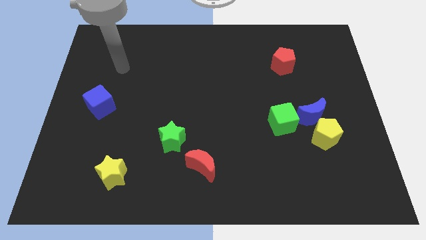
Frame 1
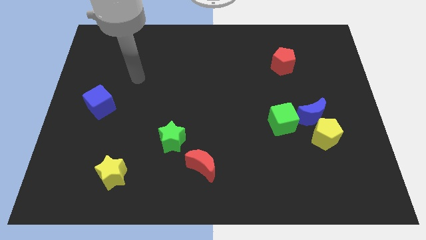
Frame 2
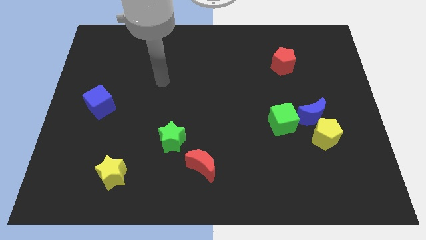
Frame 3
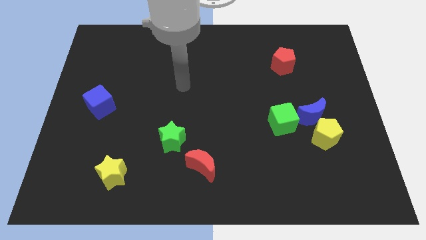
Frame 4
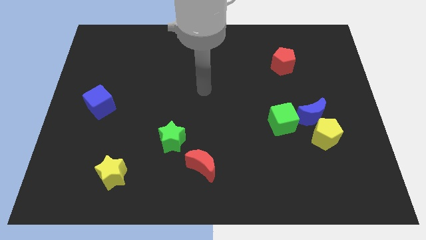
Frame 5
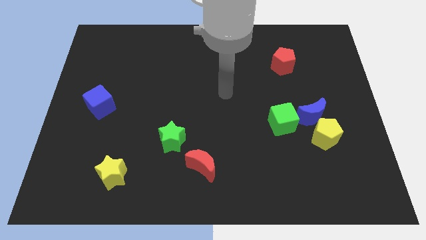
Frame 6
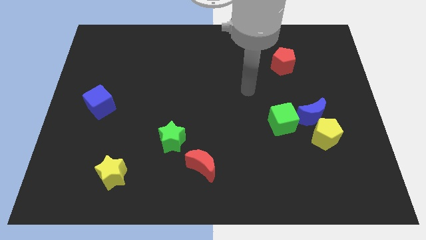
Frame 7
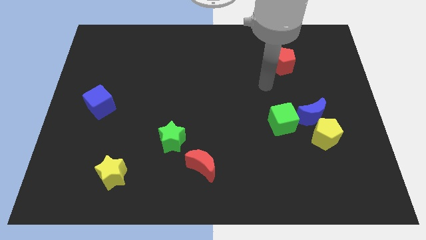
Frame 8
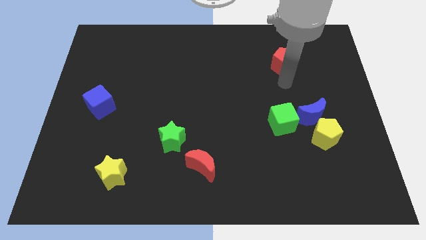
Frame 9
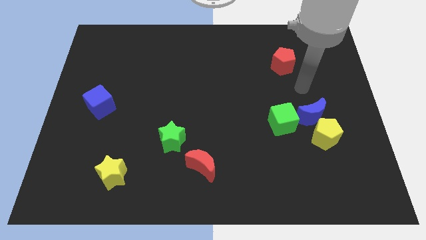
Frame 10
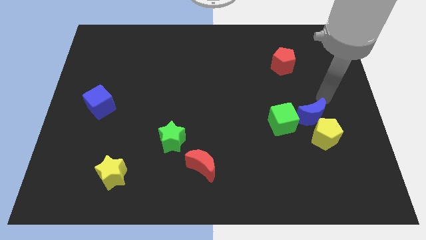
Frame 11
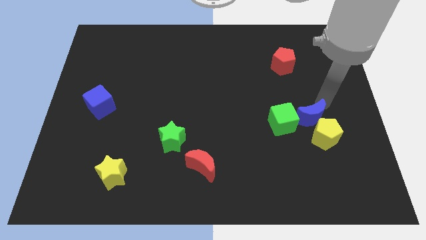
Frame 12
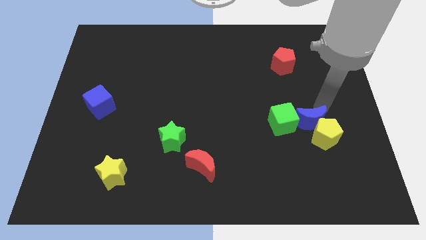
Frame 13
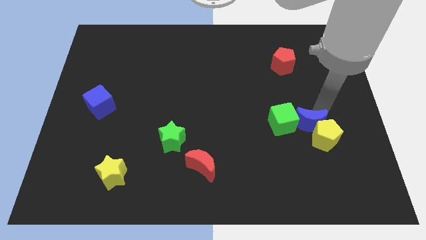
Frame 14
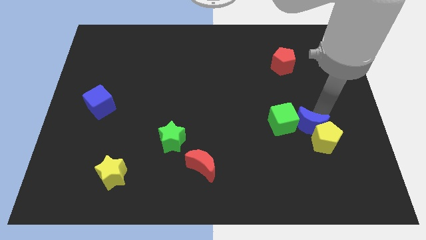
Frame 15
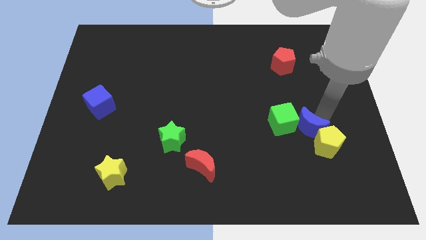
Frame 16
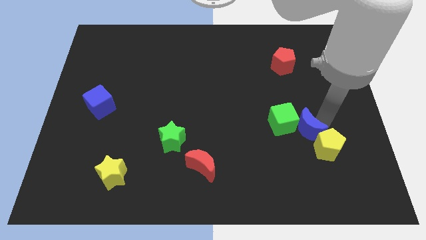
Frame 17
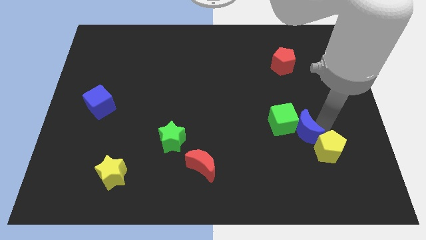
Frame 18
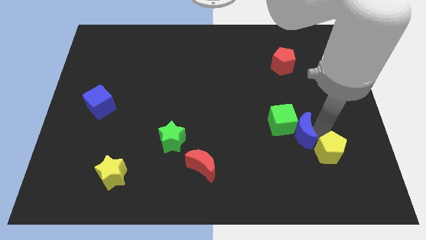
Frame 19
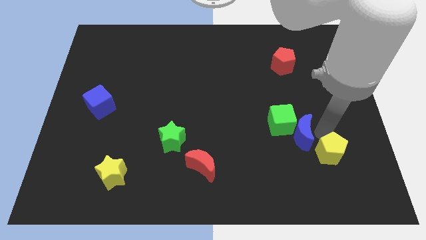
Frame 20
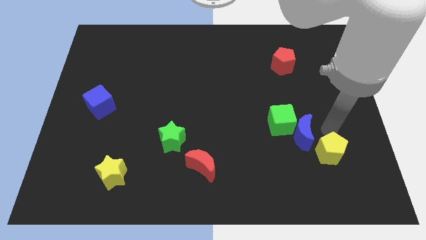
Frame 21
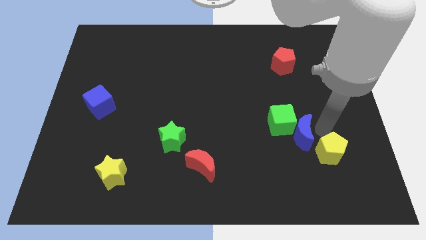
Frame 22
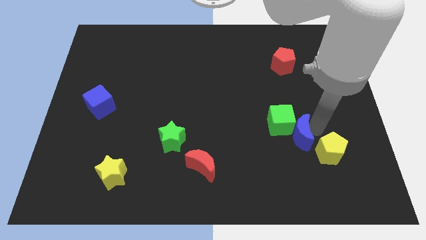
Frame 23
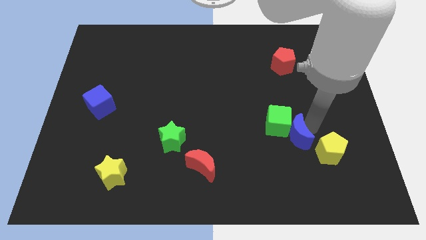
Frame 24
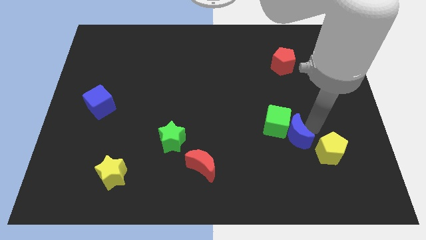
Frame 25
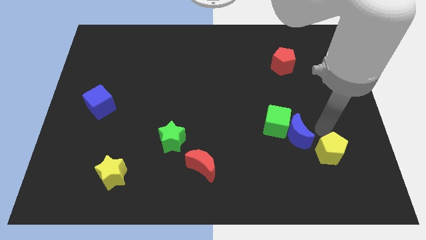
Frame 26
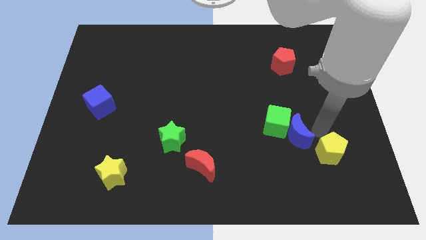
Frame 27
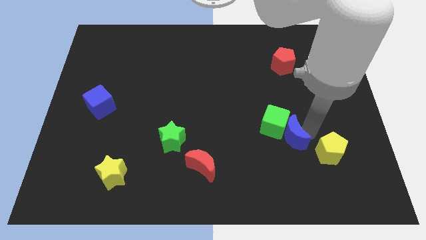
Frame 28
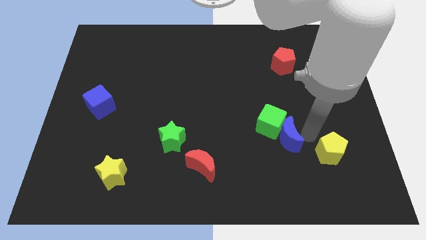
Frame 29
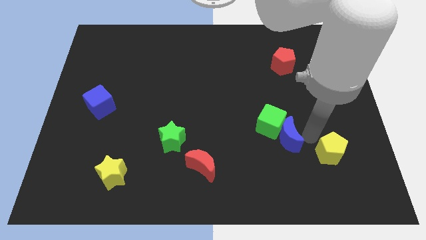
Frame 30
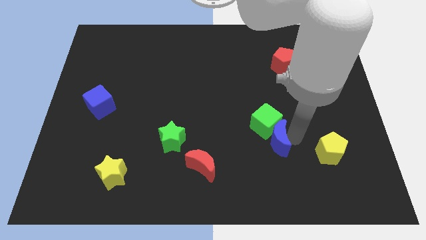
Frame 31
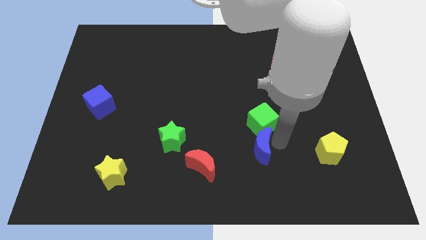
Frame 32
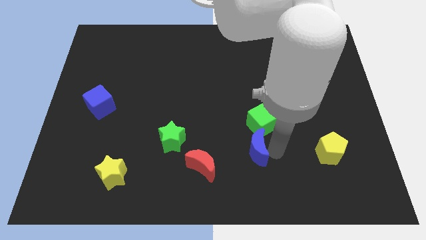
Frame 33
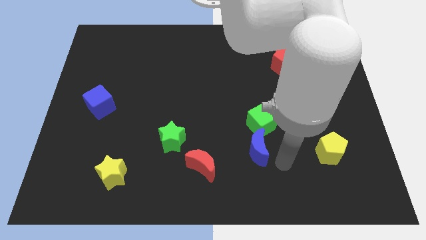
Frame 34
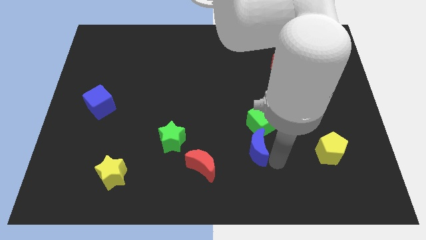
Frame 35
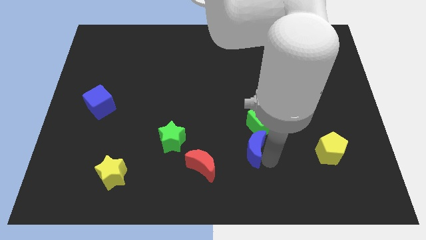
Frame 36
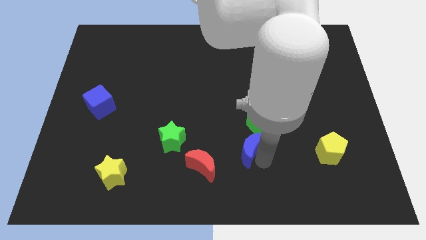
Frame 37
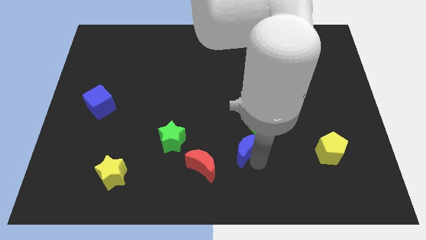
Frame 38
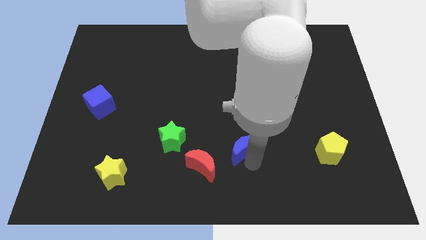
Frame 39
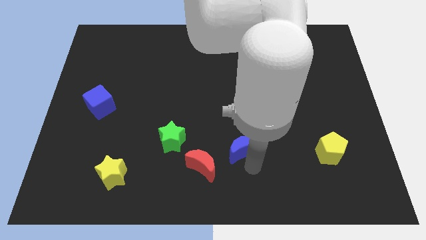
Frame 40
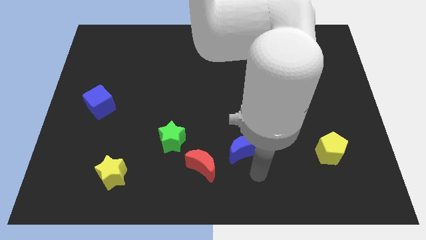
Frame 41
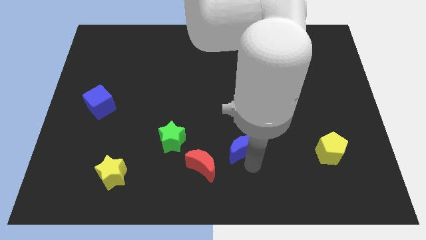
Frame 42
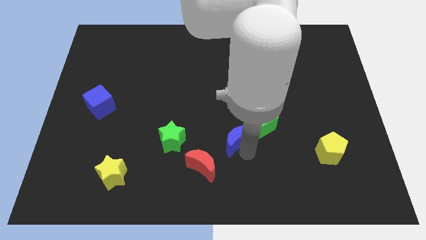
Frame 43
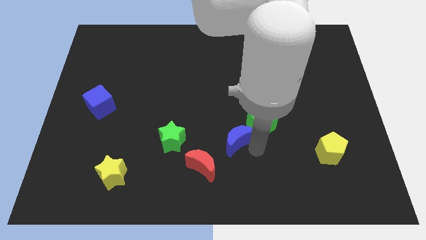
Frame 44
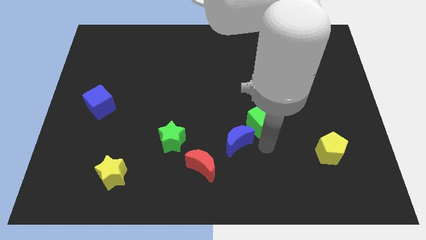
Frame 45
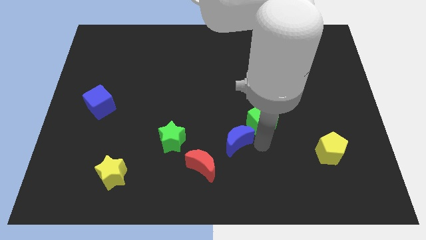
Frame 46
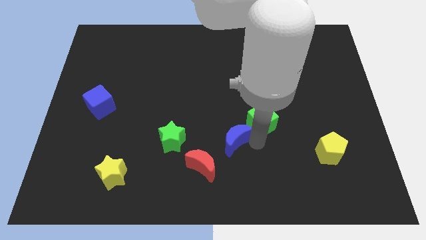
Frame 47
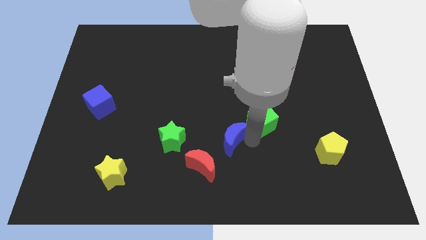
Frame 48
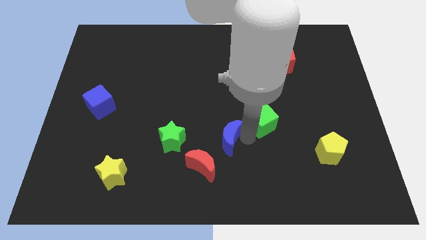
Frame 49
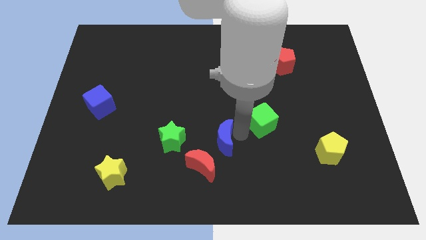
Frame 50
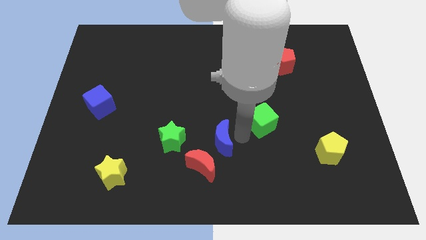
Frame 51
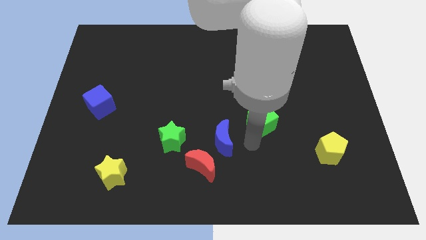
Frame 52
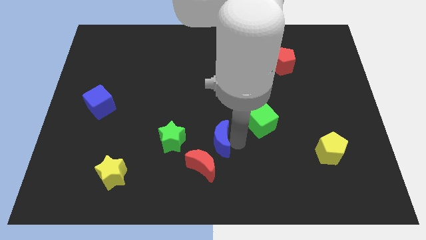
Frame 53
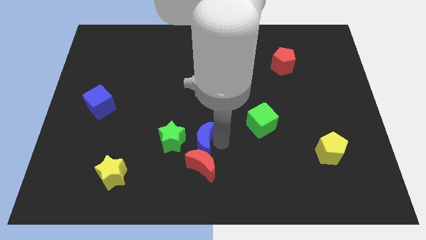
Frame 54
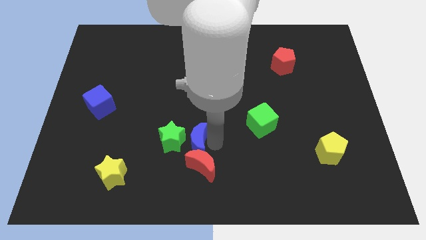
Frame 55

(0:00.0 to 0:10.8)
slide the blue moon towards the green star

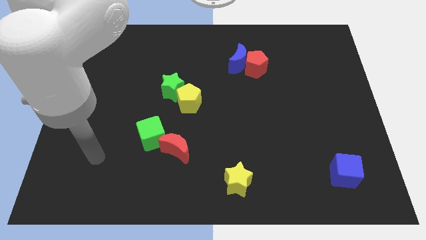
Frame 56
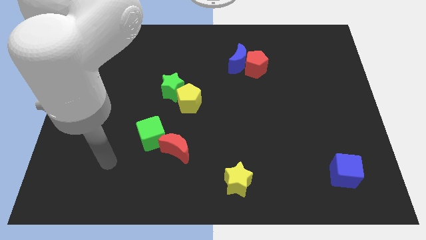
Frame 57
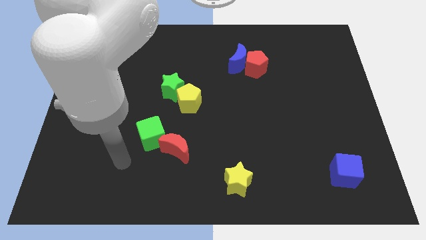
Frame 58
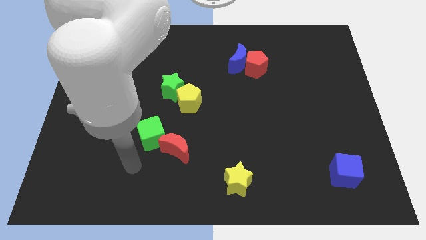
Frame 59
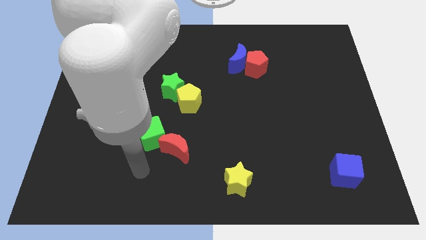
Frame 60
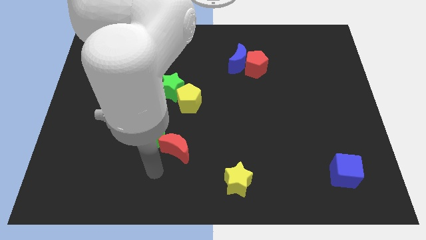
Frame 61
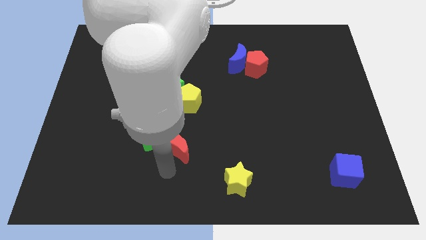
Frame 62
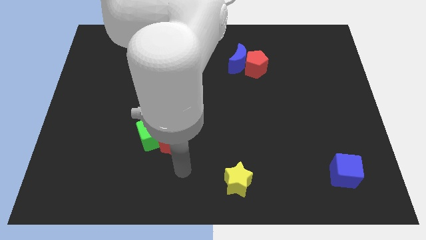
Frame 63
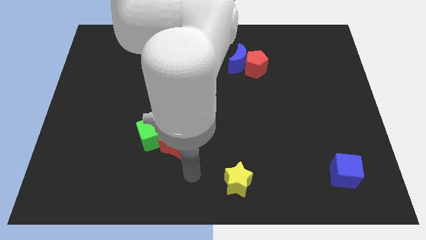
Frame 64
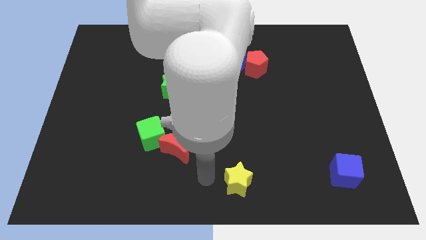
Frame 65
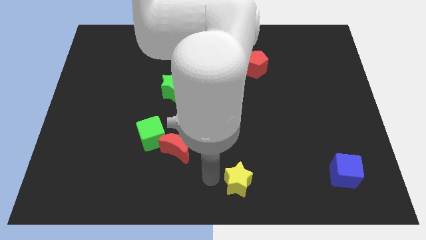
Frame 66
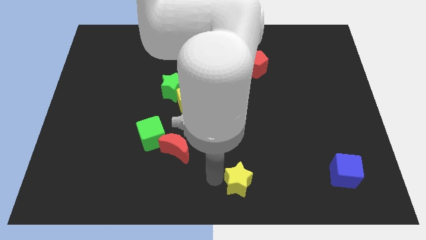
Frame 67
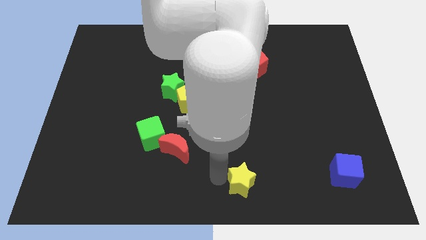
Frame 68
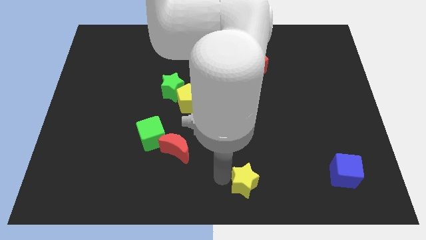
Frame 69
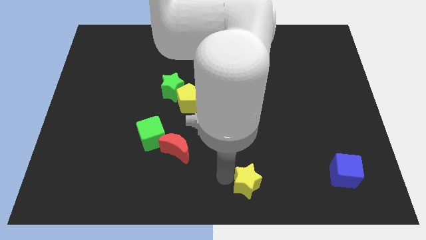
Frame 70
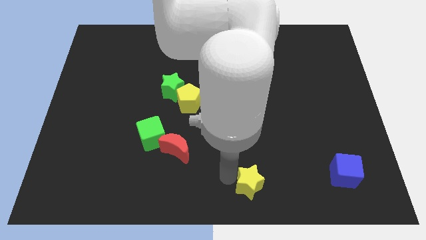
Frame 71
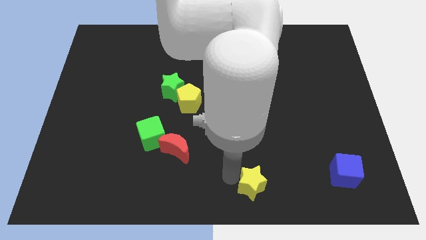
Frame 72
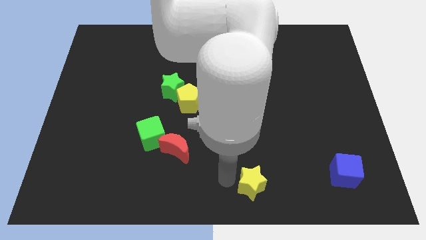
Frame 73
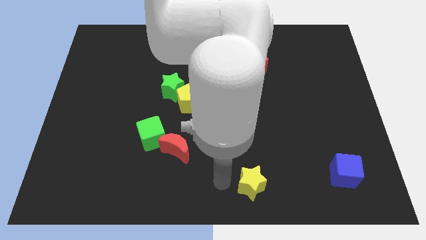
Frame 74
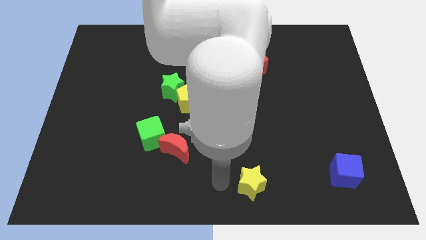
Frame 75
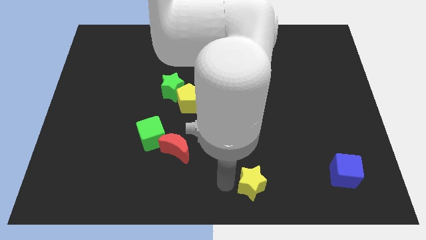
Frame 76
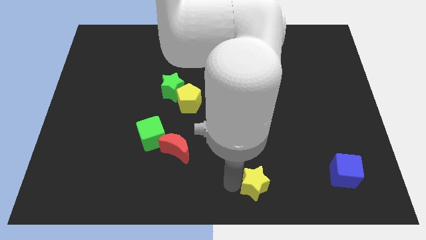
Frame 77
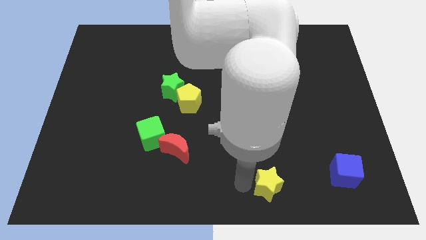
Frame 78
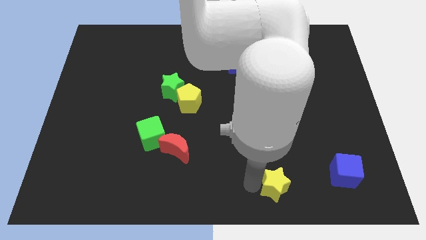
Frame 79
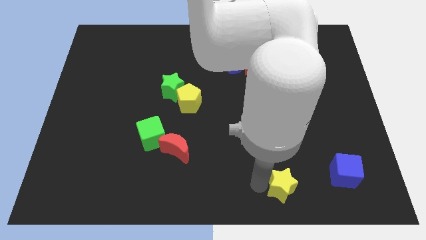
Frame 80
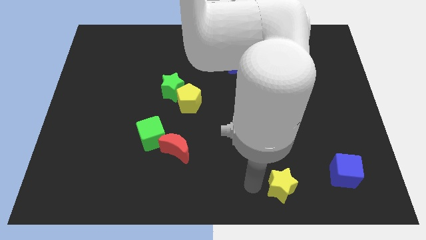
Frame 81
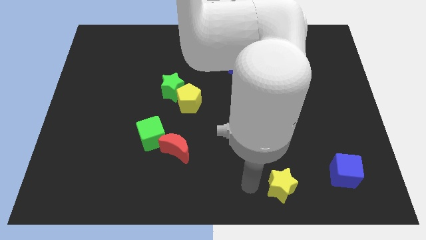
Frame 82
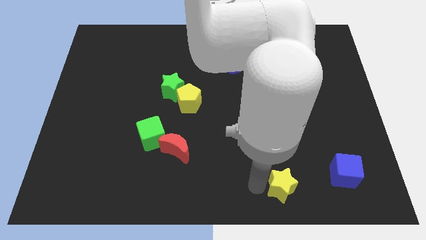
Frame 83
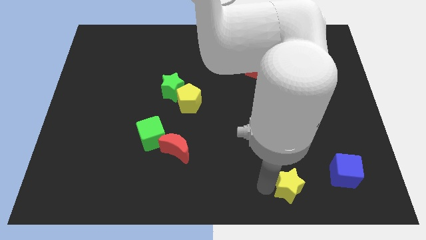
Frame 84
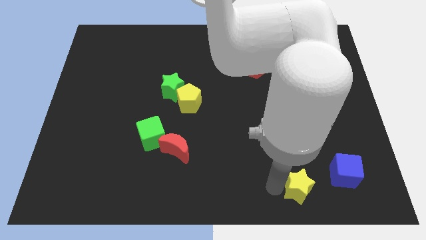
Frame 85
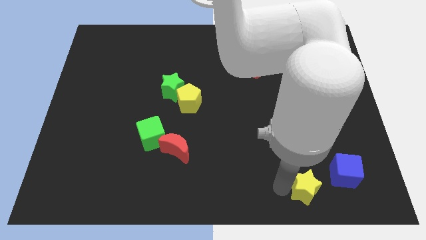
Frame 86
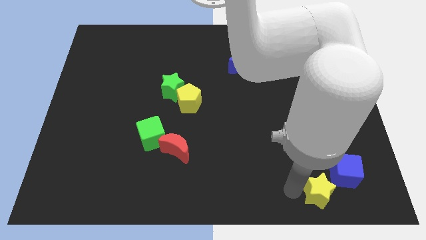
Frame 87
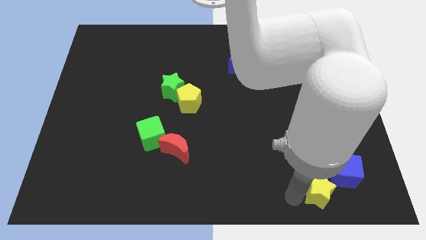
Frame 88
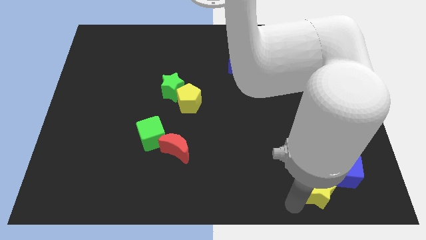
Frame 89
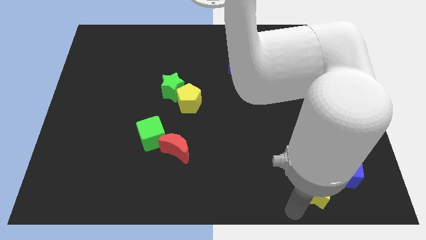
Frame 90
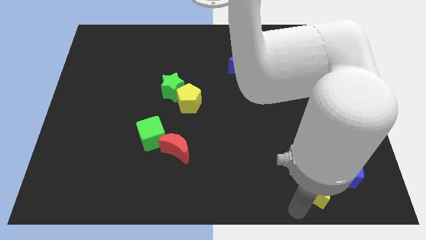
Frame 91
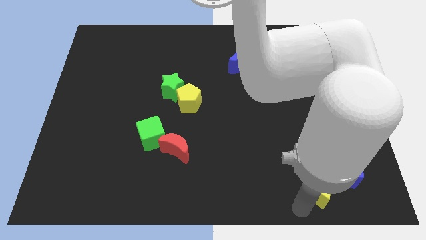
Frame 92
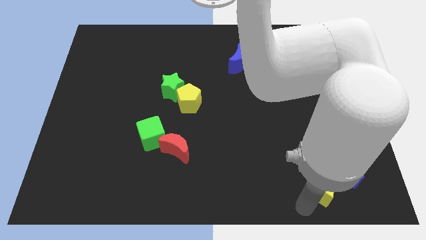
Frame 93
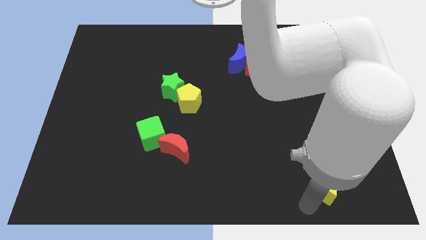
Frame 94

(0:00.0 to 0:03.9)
slide the yellow star next to the blue cube
